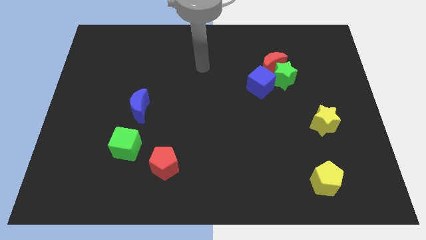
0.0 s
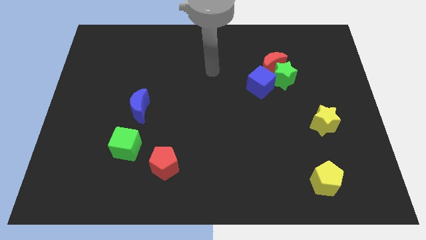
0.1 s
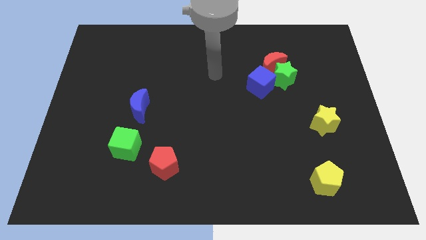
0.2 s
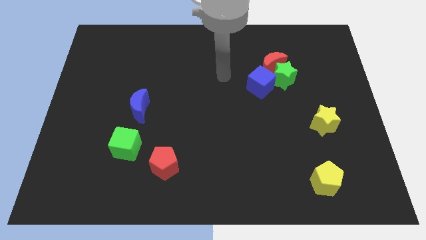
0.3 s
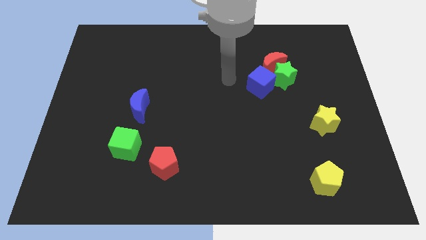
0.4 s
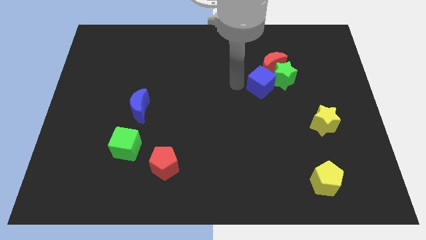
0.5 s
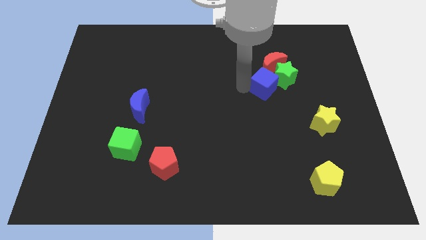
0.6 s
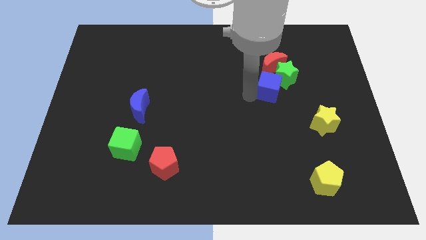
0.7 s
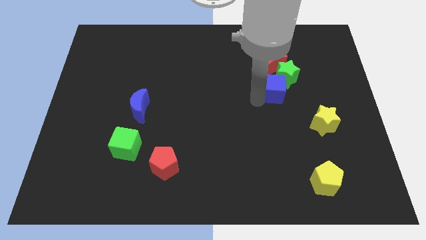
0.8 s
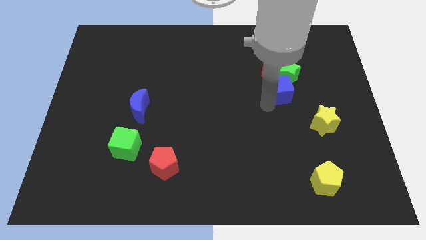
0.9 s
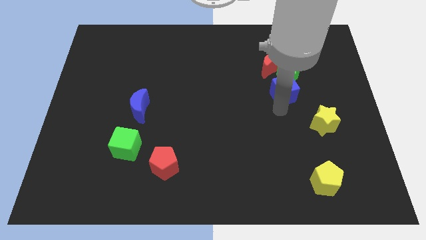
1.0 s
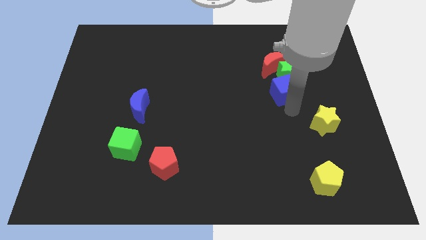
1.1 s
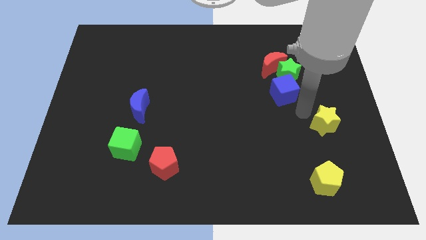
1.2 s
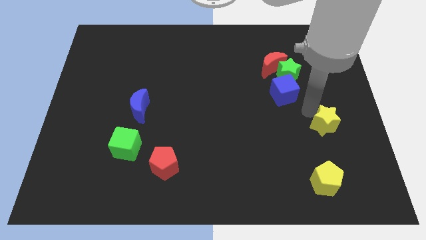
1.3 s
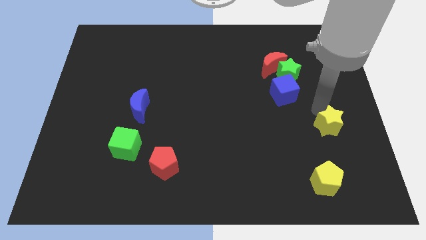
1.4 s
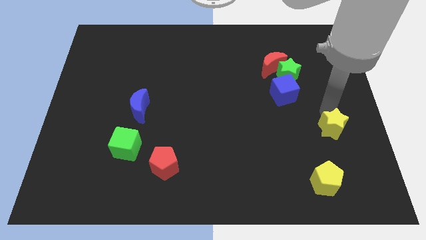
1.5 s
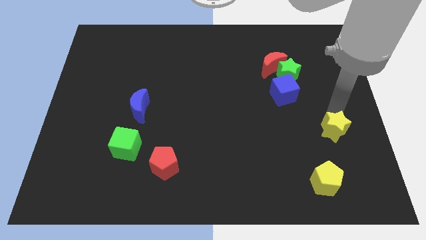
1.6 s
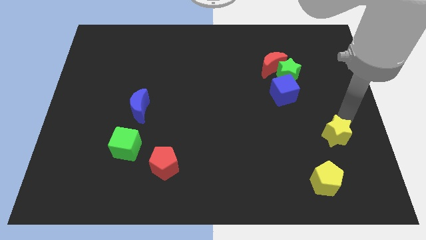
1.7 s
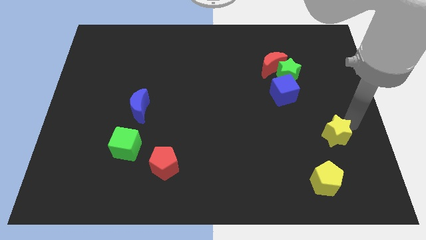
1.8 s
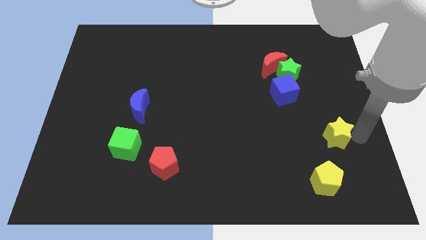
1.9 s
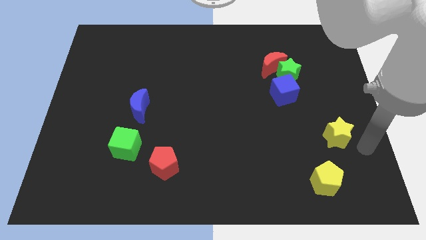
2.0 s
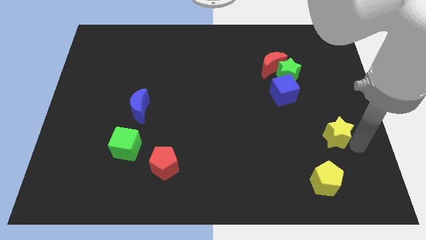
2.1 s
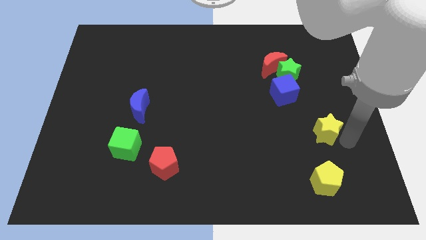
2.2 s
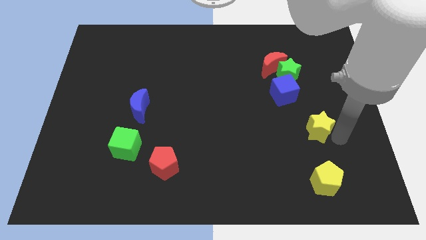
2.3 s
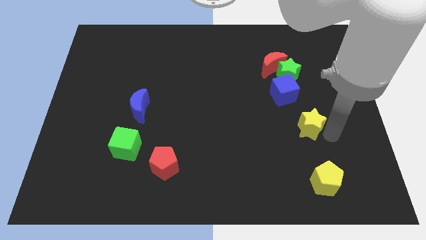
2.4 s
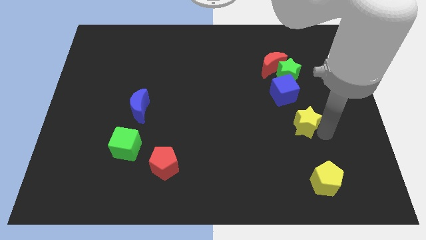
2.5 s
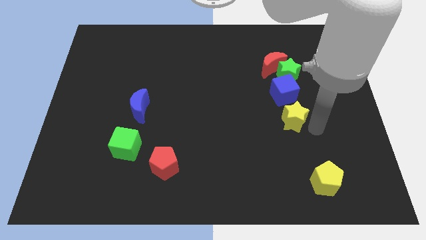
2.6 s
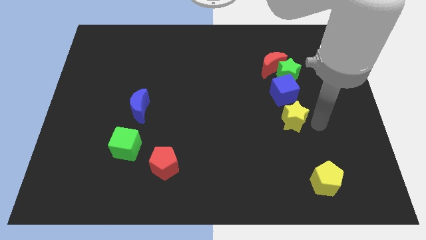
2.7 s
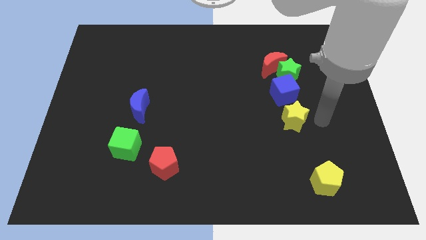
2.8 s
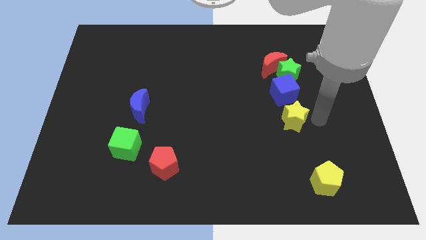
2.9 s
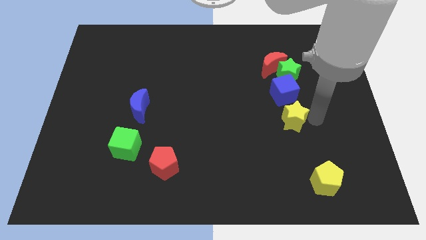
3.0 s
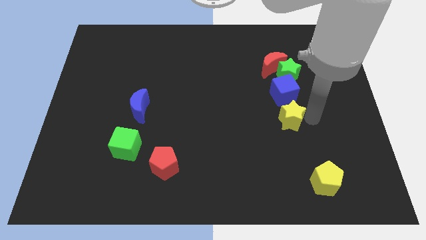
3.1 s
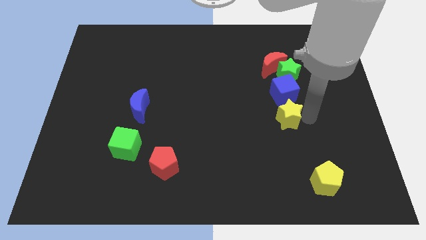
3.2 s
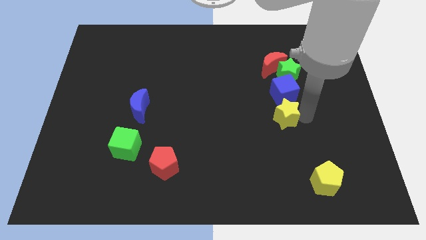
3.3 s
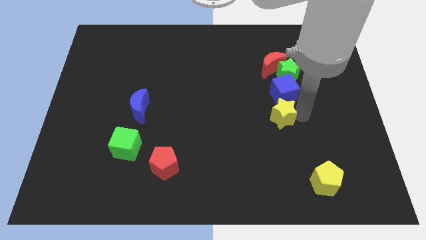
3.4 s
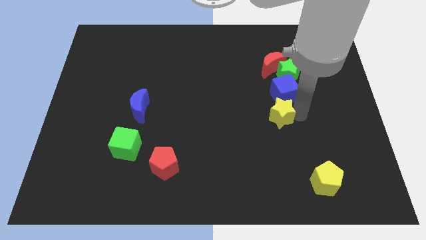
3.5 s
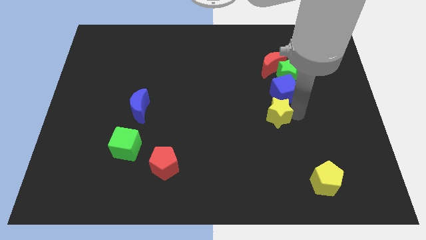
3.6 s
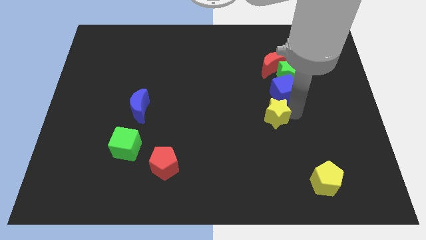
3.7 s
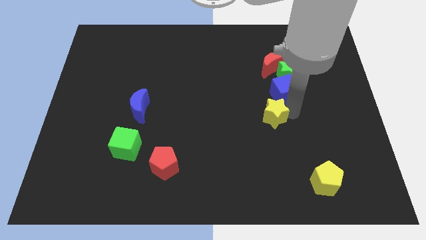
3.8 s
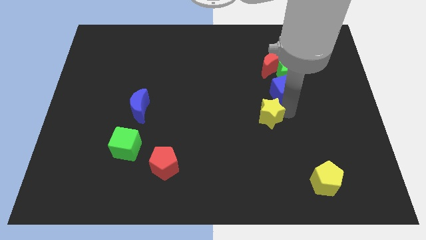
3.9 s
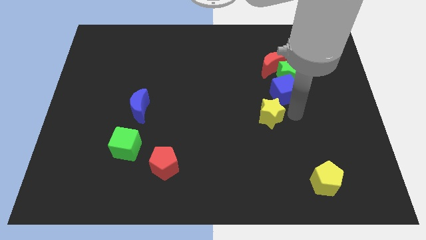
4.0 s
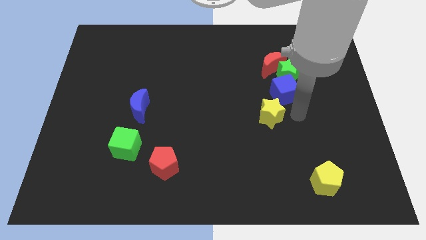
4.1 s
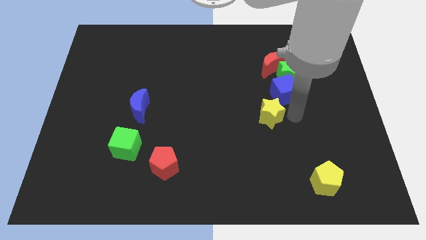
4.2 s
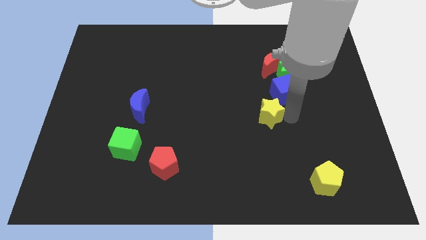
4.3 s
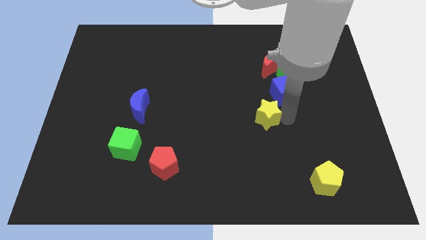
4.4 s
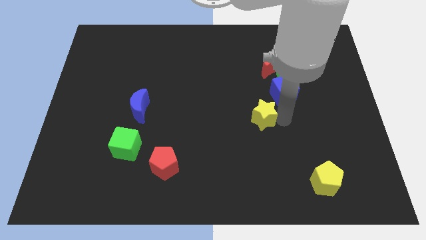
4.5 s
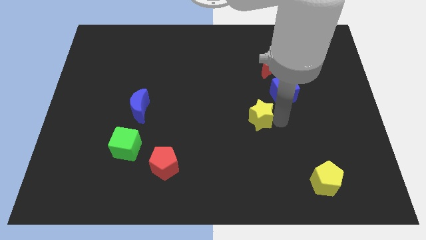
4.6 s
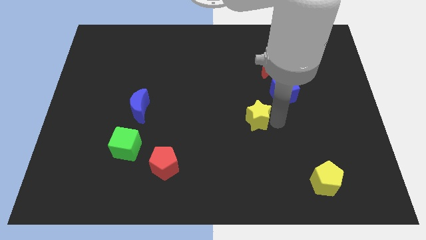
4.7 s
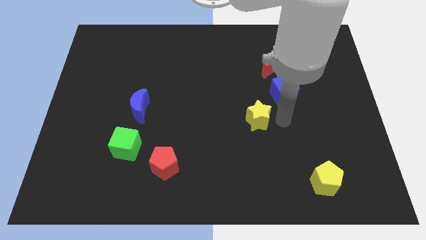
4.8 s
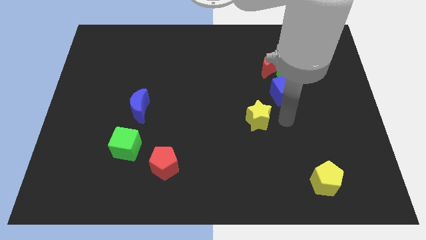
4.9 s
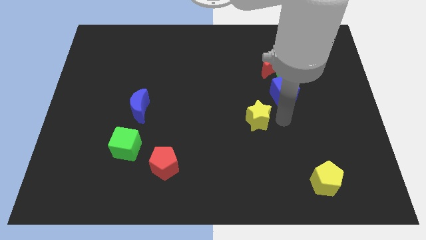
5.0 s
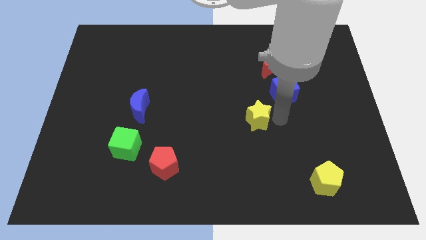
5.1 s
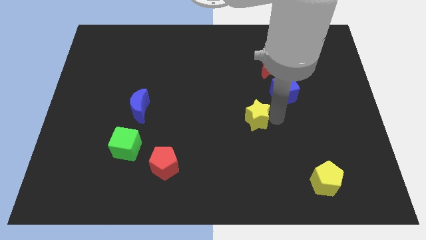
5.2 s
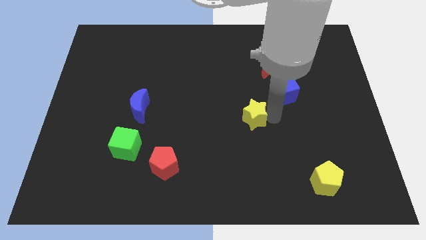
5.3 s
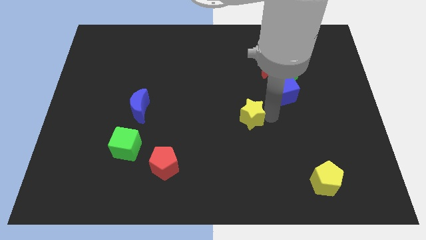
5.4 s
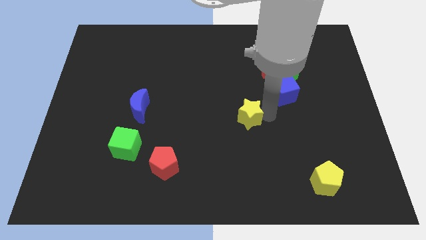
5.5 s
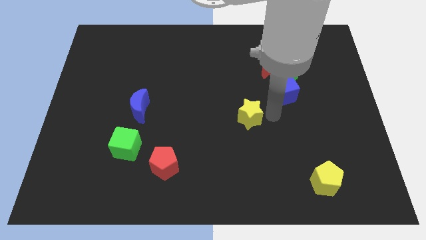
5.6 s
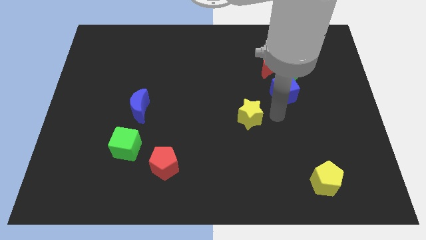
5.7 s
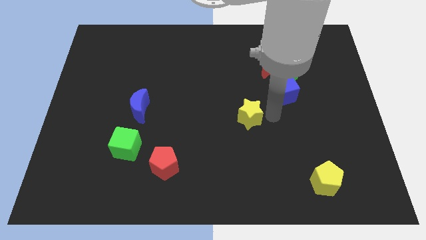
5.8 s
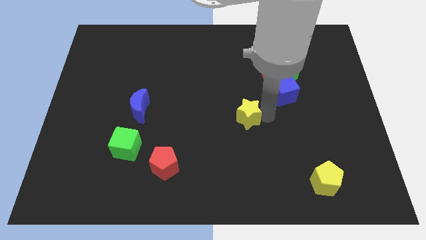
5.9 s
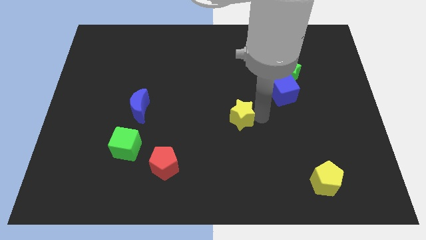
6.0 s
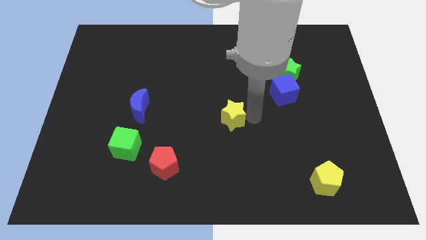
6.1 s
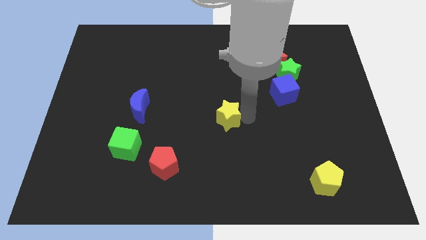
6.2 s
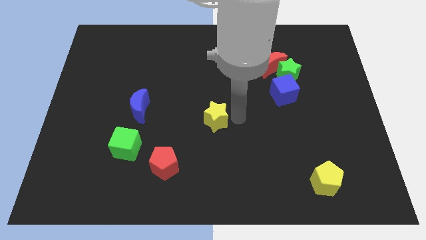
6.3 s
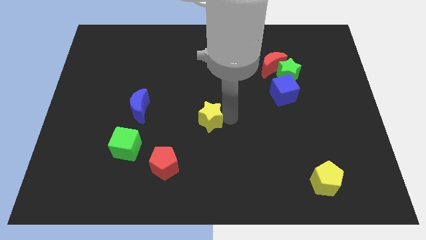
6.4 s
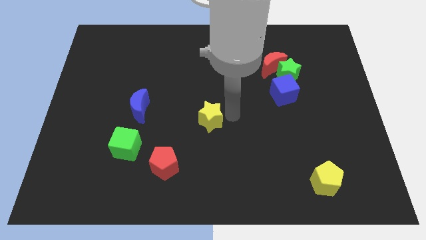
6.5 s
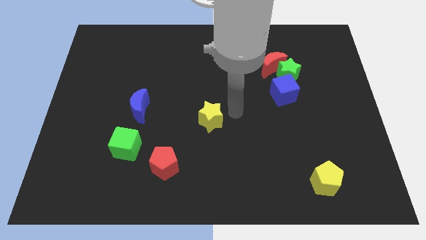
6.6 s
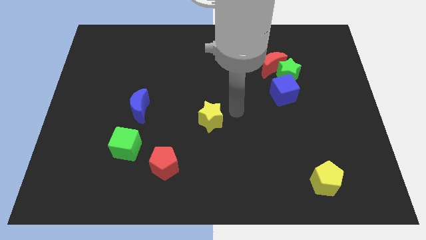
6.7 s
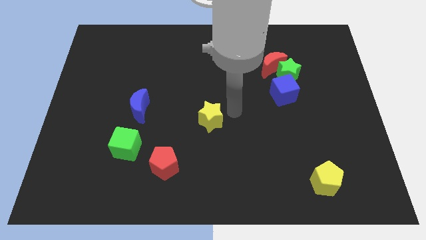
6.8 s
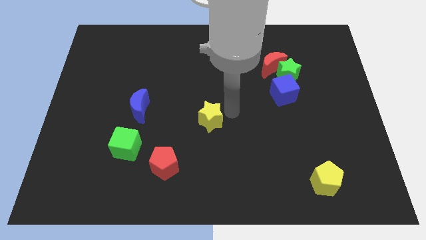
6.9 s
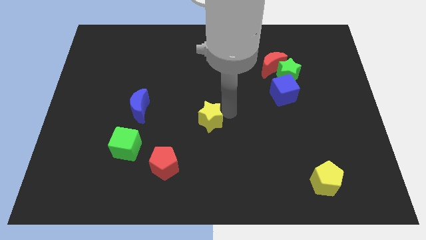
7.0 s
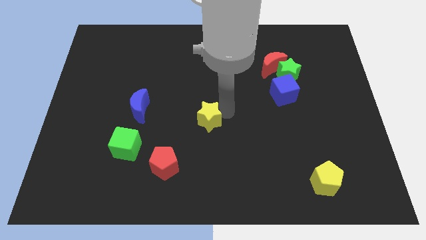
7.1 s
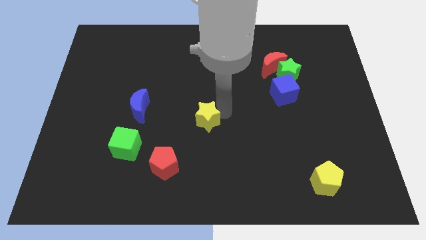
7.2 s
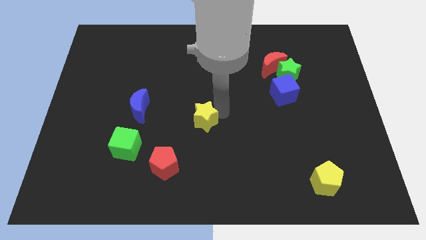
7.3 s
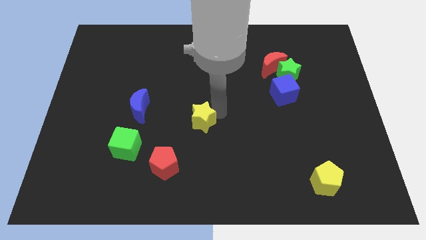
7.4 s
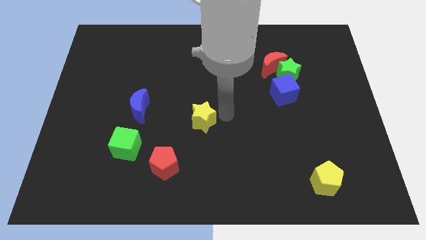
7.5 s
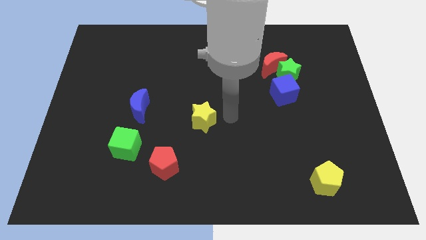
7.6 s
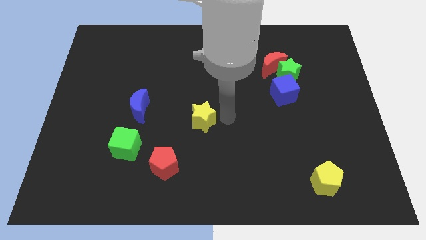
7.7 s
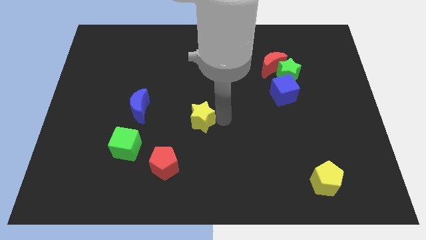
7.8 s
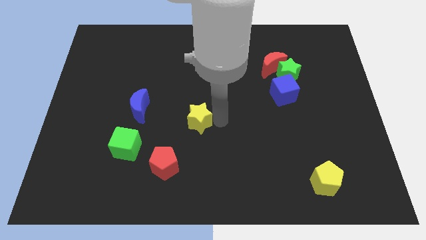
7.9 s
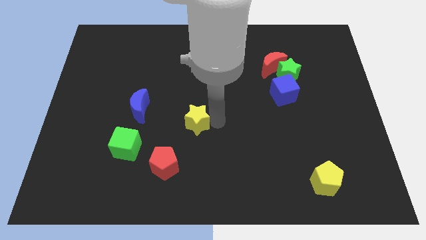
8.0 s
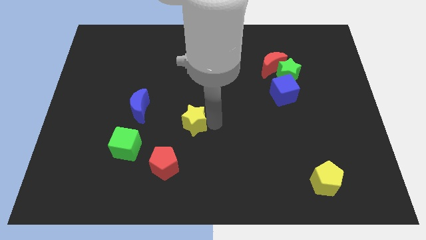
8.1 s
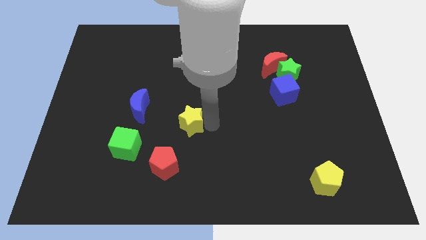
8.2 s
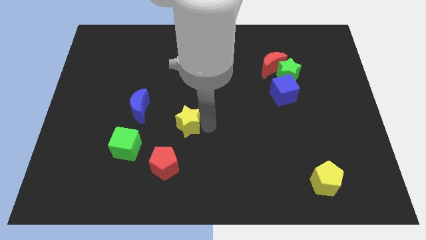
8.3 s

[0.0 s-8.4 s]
push the yellow star to the top of the red pentagon
